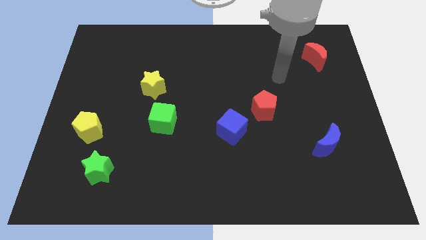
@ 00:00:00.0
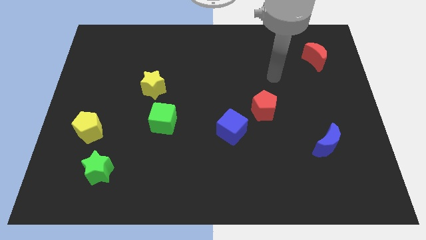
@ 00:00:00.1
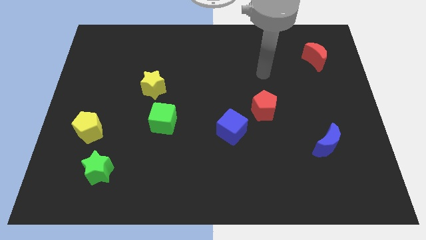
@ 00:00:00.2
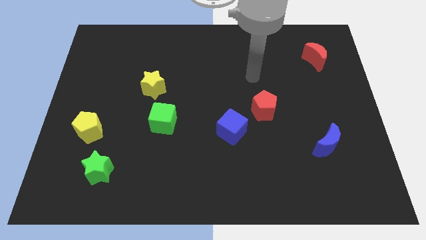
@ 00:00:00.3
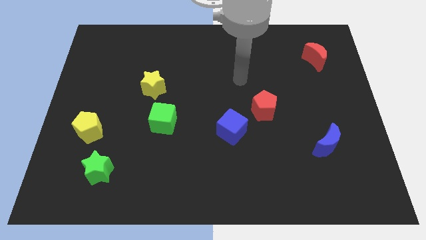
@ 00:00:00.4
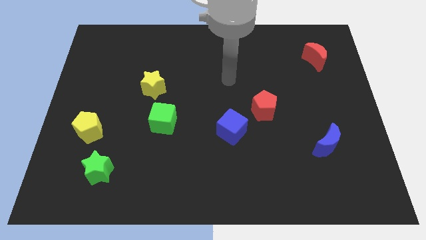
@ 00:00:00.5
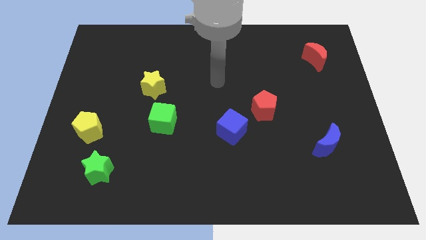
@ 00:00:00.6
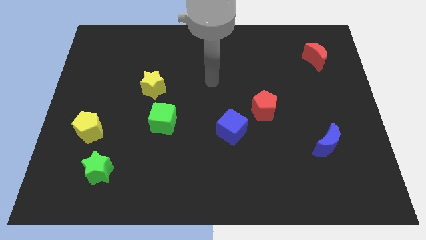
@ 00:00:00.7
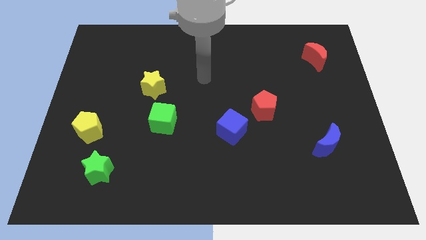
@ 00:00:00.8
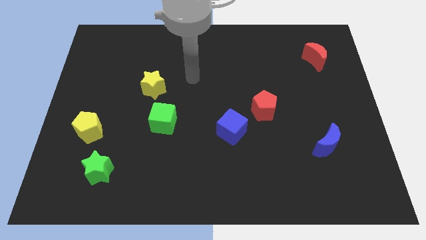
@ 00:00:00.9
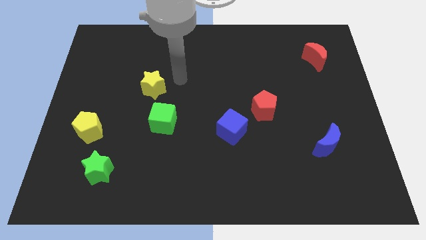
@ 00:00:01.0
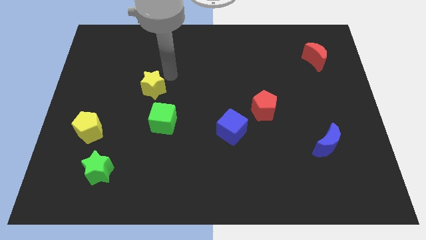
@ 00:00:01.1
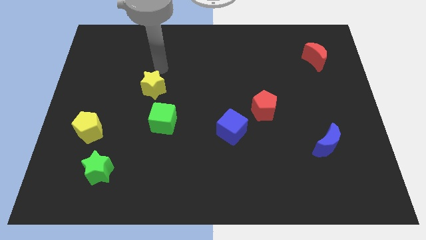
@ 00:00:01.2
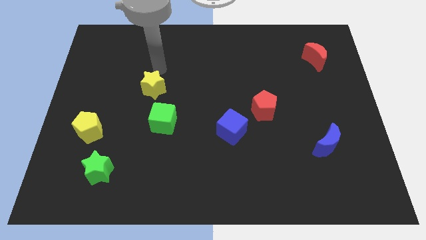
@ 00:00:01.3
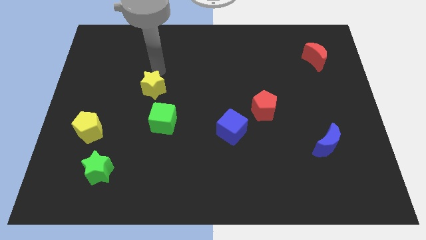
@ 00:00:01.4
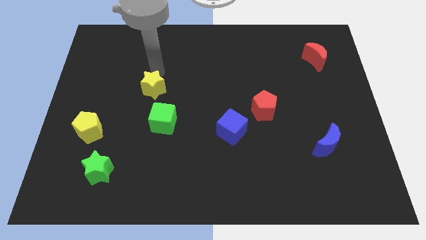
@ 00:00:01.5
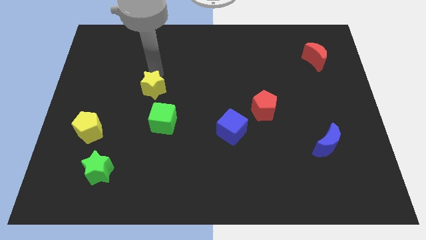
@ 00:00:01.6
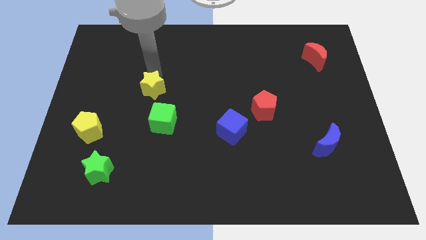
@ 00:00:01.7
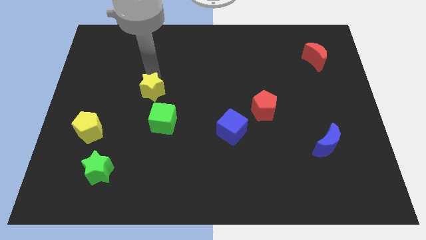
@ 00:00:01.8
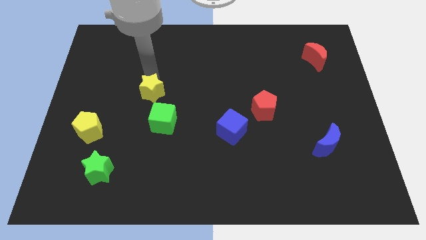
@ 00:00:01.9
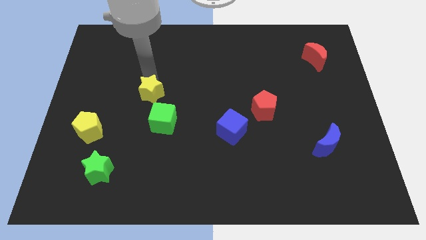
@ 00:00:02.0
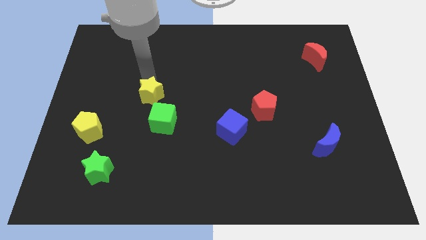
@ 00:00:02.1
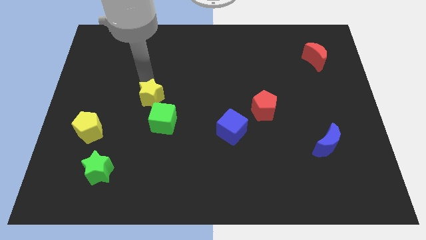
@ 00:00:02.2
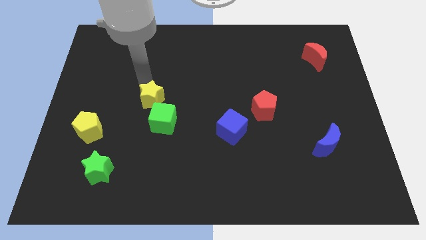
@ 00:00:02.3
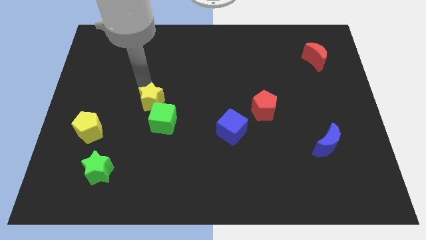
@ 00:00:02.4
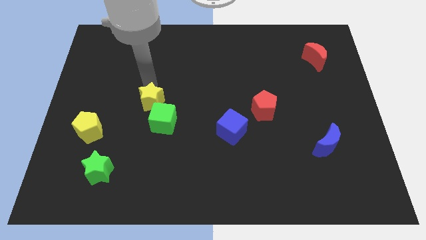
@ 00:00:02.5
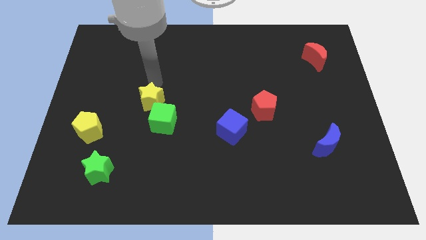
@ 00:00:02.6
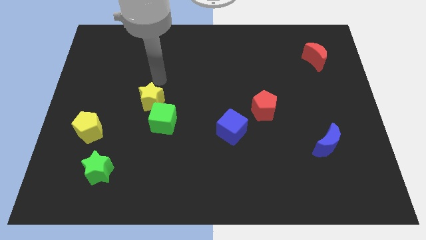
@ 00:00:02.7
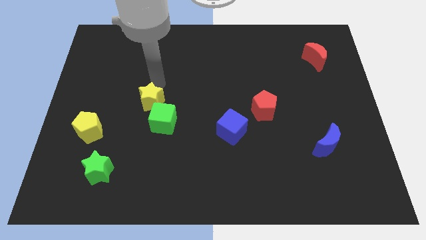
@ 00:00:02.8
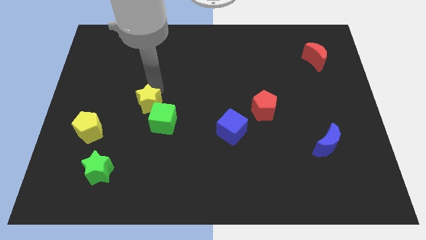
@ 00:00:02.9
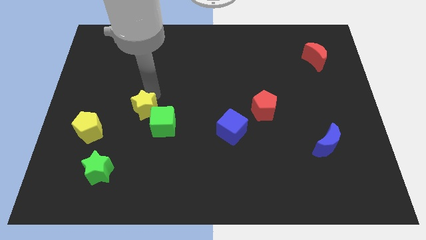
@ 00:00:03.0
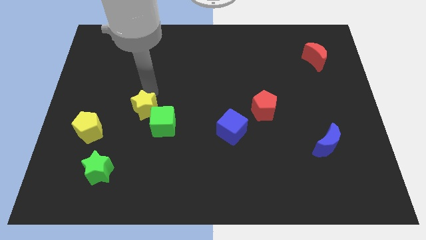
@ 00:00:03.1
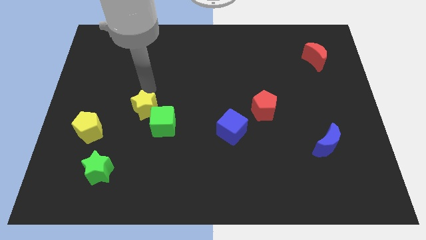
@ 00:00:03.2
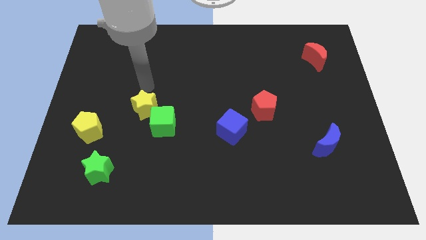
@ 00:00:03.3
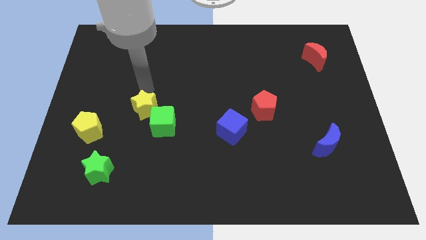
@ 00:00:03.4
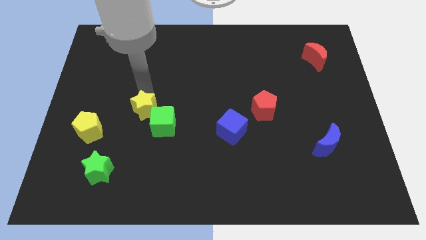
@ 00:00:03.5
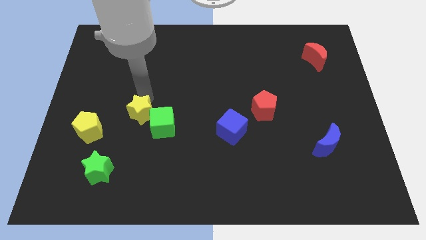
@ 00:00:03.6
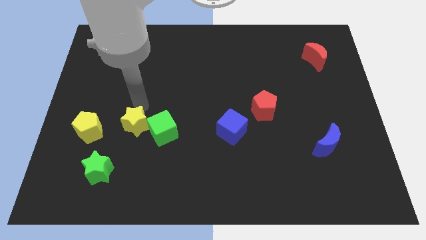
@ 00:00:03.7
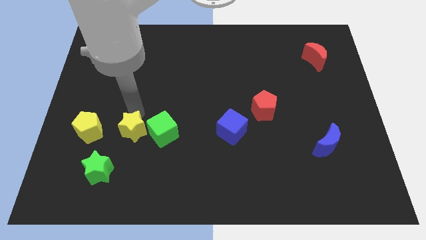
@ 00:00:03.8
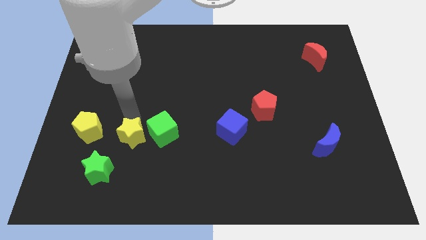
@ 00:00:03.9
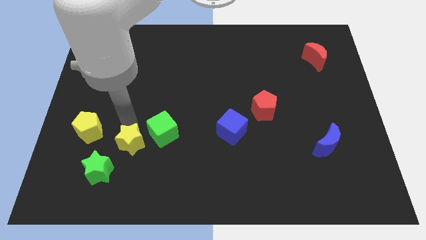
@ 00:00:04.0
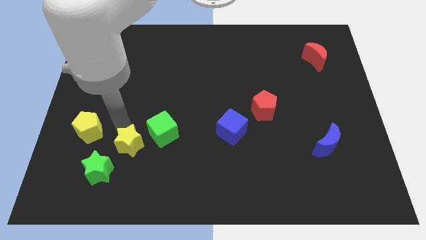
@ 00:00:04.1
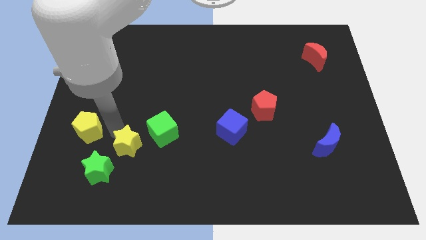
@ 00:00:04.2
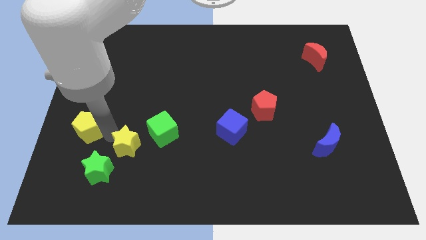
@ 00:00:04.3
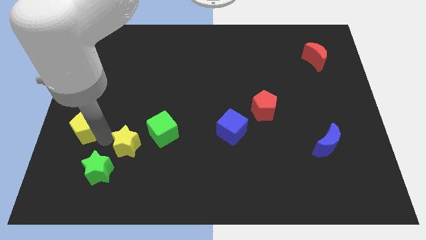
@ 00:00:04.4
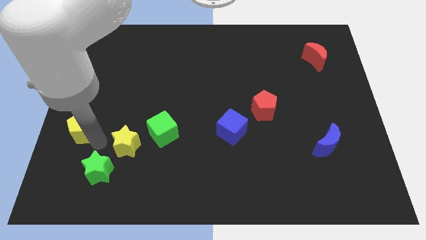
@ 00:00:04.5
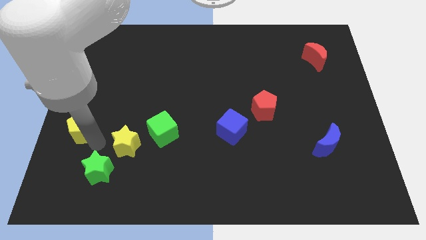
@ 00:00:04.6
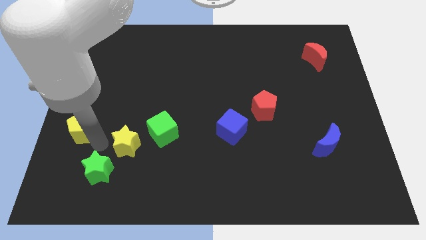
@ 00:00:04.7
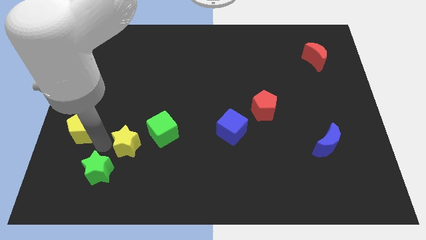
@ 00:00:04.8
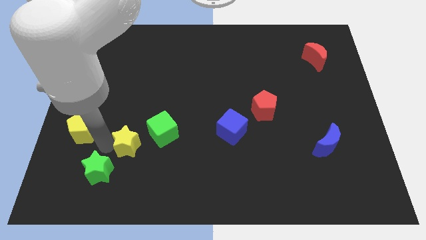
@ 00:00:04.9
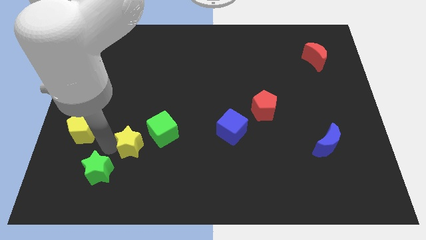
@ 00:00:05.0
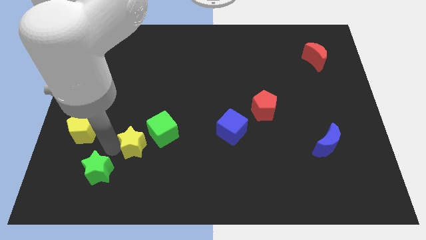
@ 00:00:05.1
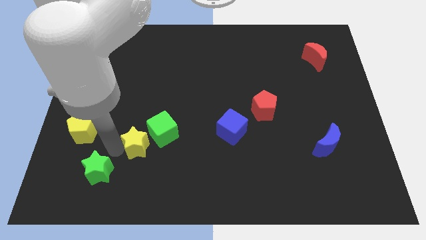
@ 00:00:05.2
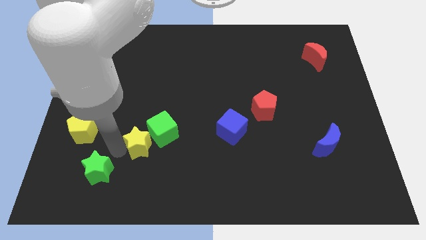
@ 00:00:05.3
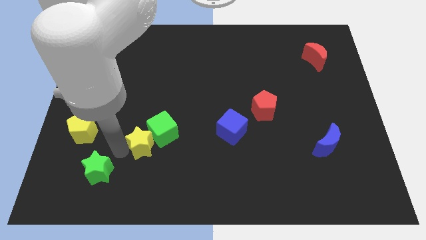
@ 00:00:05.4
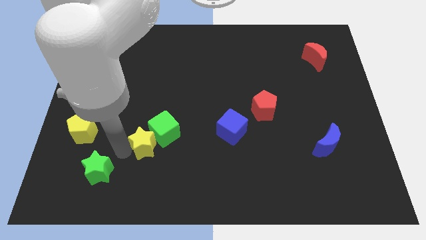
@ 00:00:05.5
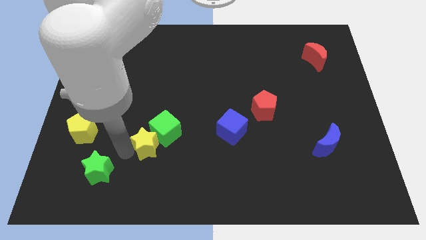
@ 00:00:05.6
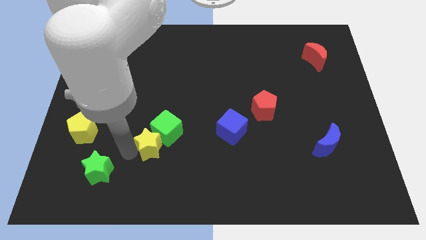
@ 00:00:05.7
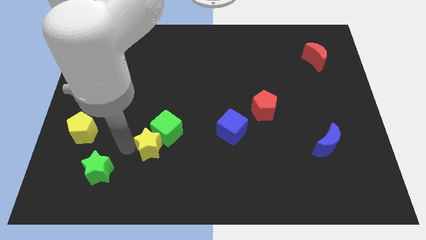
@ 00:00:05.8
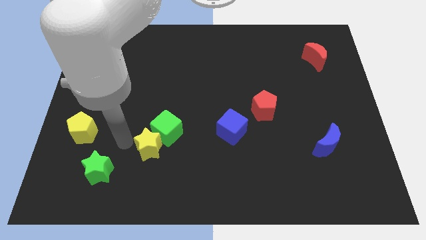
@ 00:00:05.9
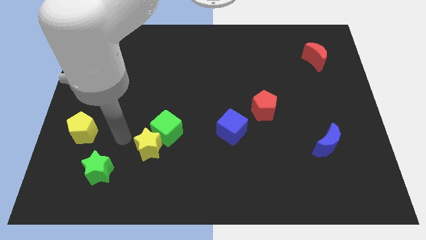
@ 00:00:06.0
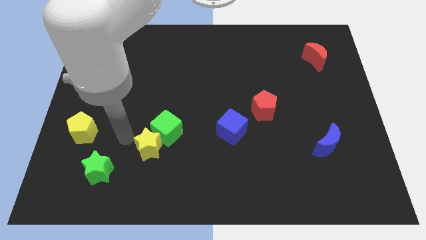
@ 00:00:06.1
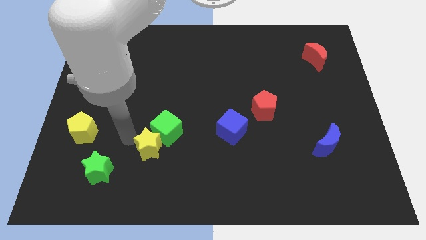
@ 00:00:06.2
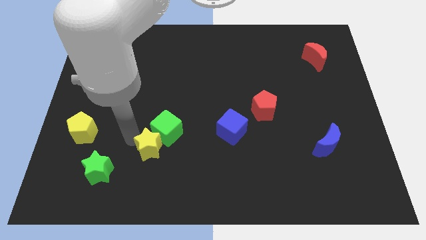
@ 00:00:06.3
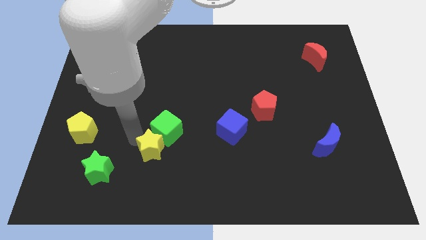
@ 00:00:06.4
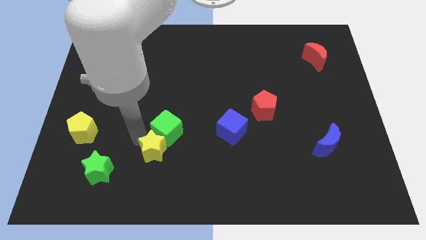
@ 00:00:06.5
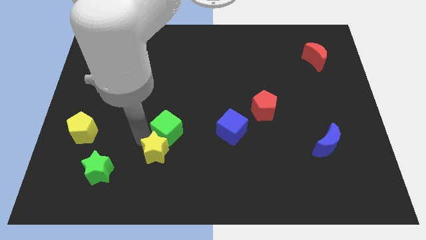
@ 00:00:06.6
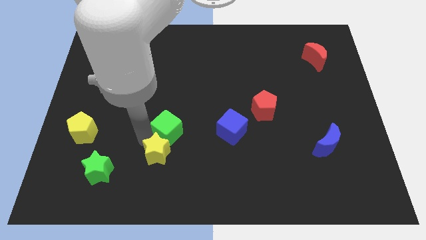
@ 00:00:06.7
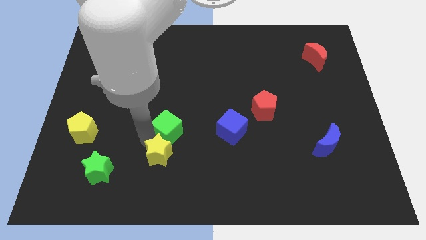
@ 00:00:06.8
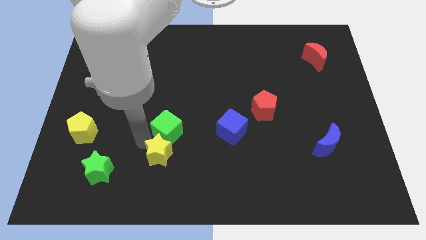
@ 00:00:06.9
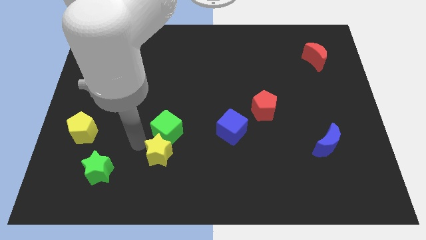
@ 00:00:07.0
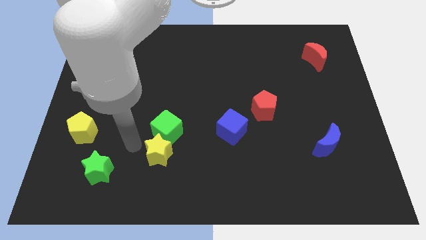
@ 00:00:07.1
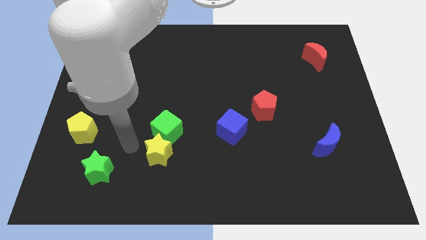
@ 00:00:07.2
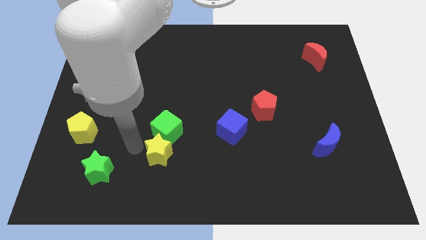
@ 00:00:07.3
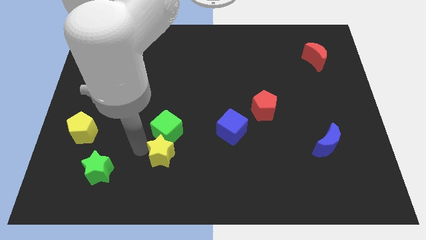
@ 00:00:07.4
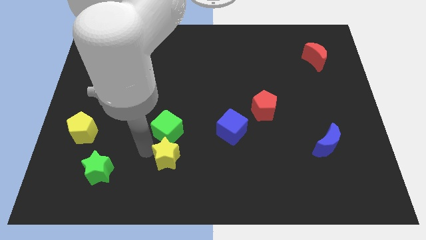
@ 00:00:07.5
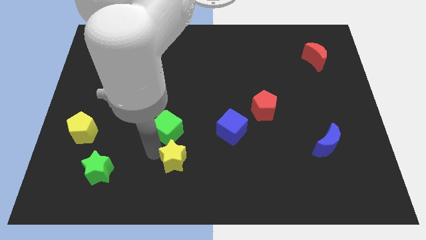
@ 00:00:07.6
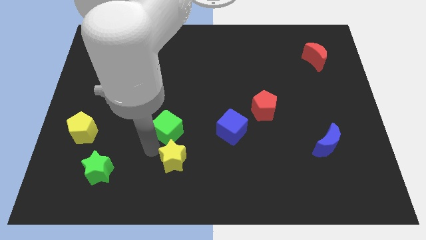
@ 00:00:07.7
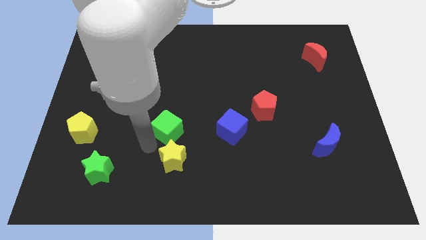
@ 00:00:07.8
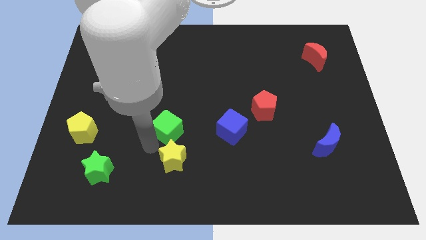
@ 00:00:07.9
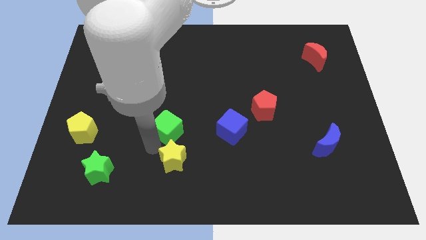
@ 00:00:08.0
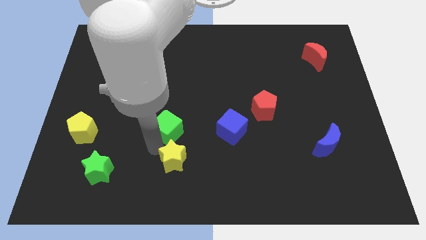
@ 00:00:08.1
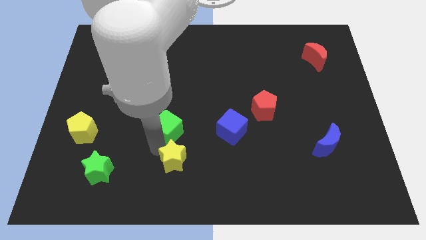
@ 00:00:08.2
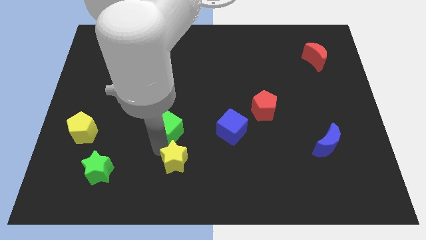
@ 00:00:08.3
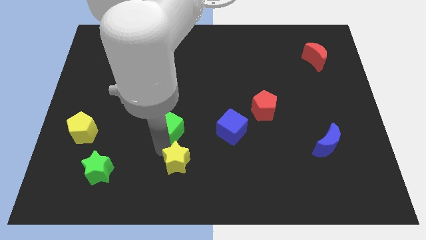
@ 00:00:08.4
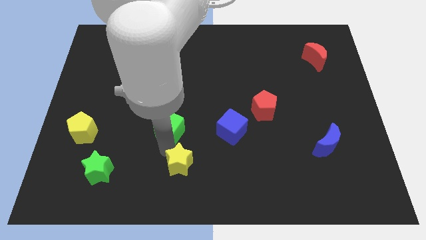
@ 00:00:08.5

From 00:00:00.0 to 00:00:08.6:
move the yellow star to the bottom
